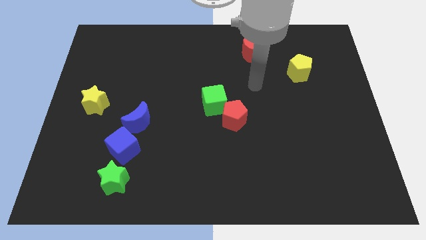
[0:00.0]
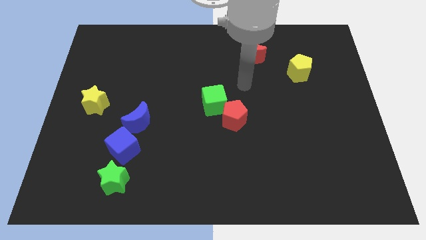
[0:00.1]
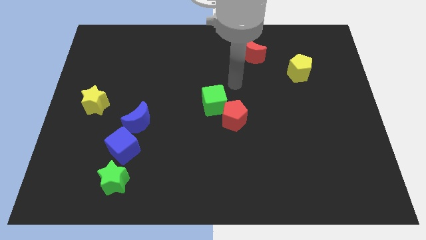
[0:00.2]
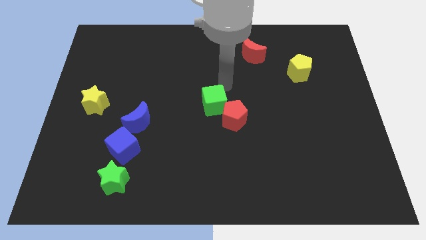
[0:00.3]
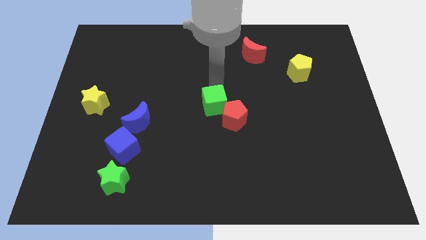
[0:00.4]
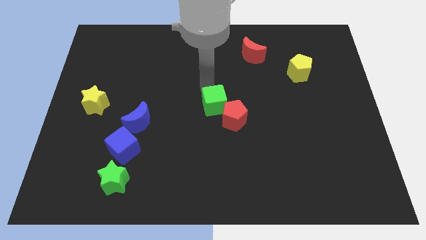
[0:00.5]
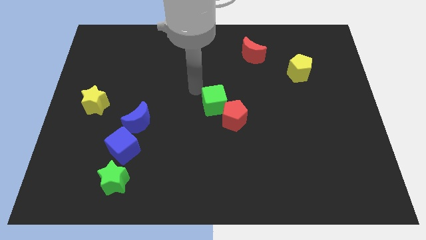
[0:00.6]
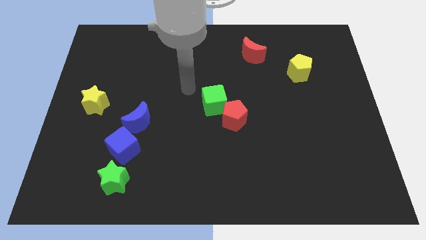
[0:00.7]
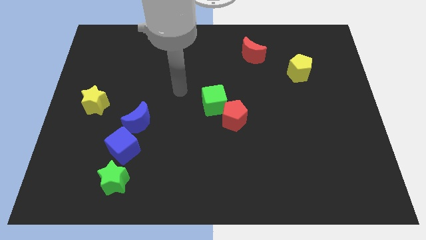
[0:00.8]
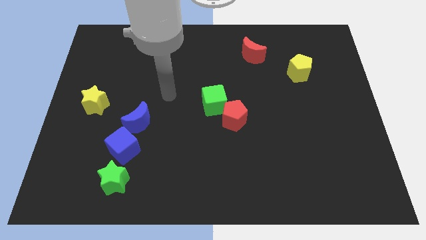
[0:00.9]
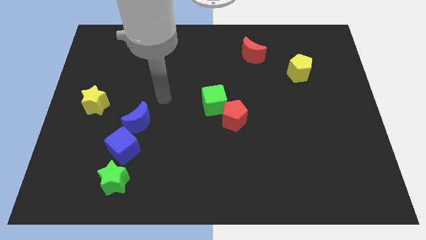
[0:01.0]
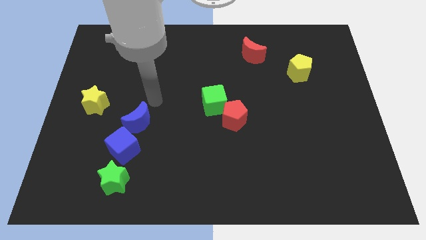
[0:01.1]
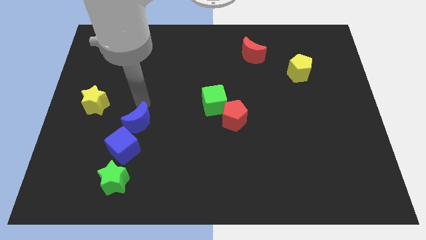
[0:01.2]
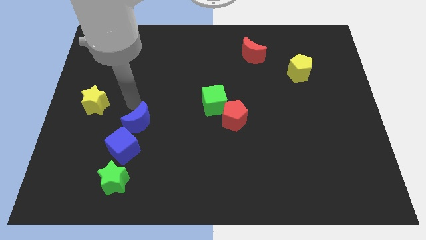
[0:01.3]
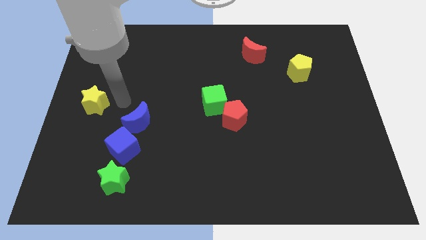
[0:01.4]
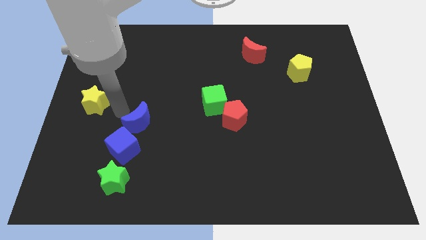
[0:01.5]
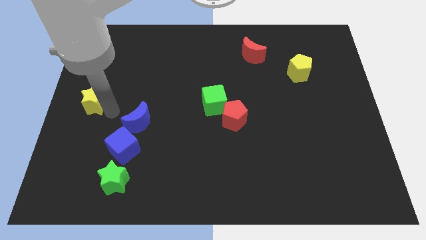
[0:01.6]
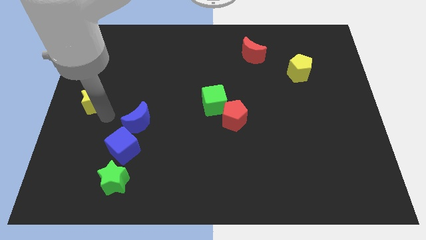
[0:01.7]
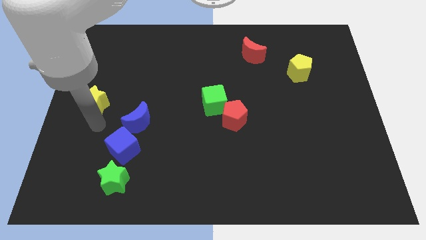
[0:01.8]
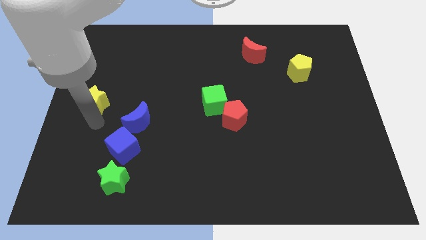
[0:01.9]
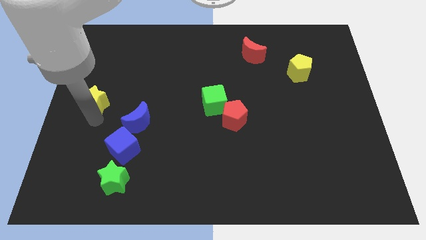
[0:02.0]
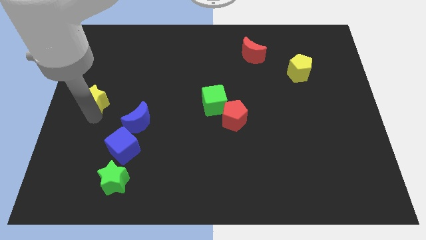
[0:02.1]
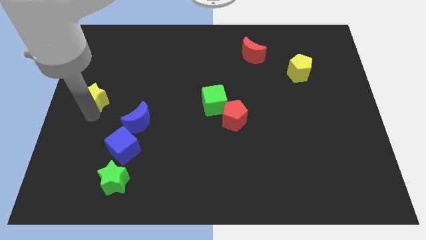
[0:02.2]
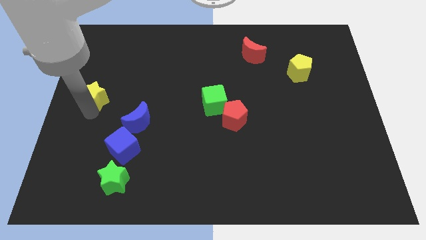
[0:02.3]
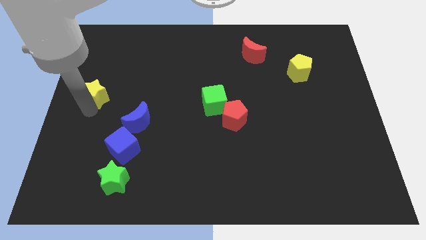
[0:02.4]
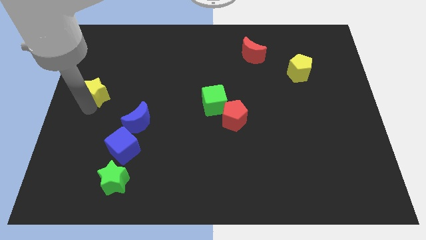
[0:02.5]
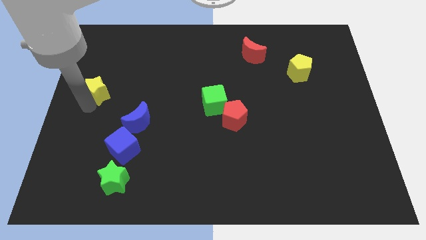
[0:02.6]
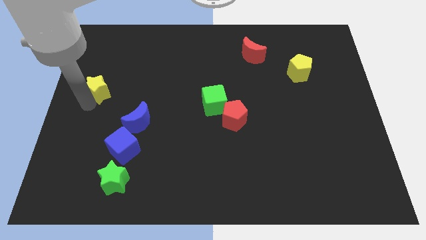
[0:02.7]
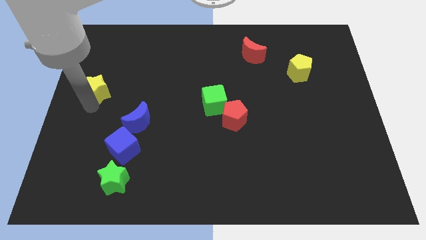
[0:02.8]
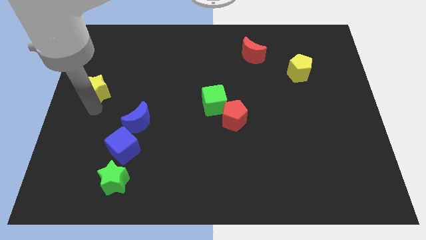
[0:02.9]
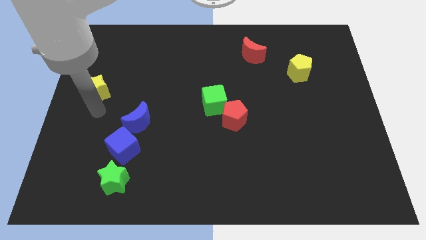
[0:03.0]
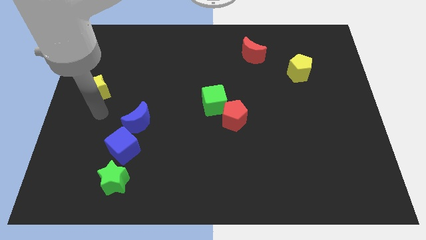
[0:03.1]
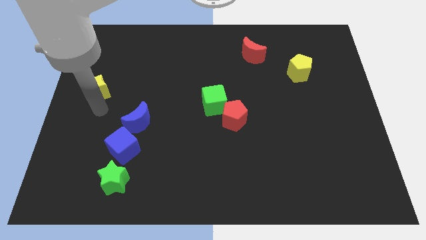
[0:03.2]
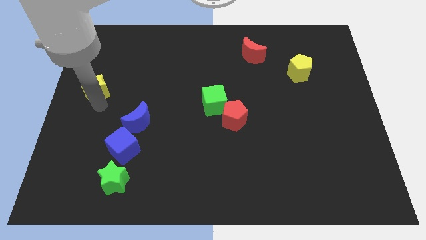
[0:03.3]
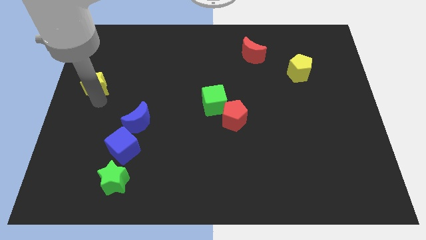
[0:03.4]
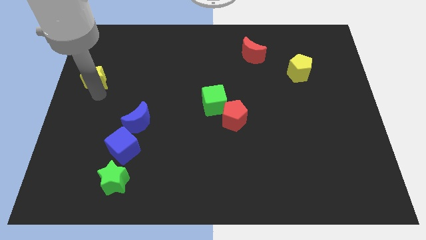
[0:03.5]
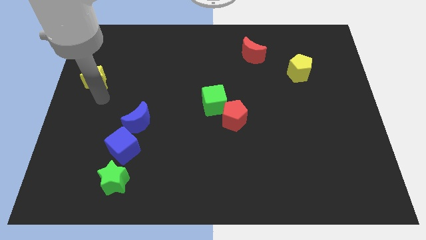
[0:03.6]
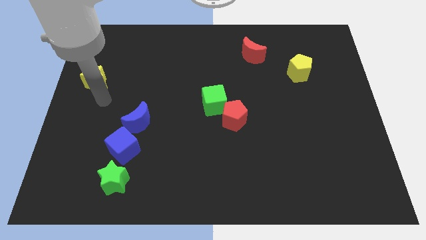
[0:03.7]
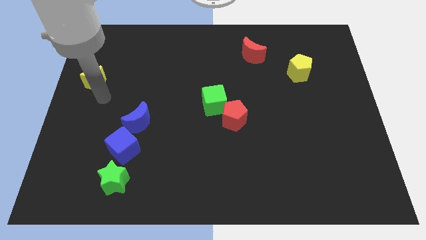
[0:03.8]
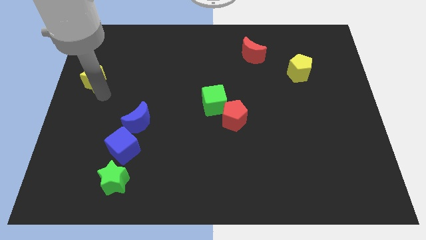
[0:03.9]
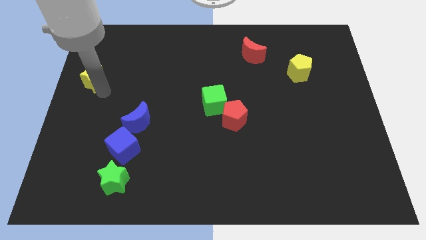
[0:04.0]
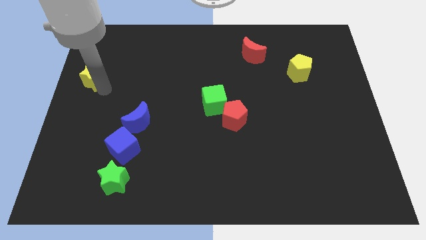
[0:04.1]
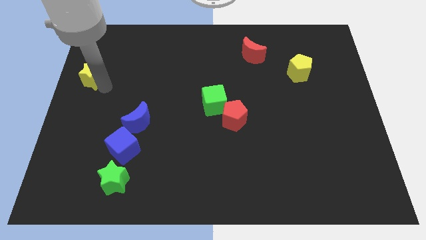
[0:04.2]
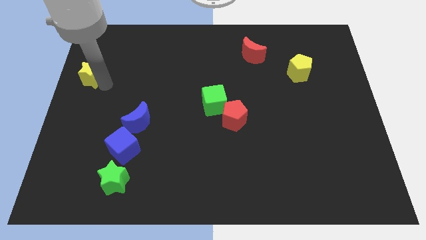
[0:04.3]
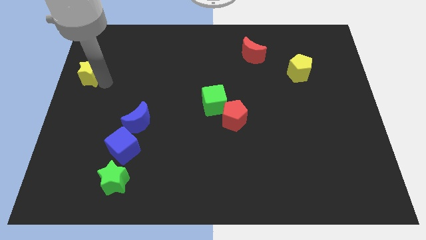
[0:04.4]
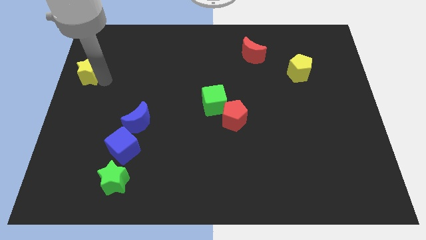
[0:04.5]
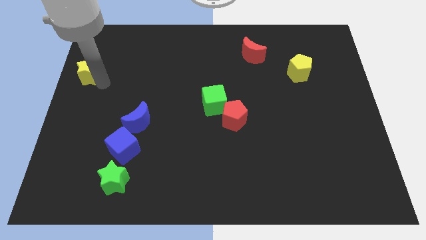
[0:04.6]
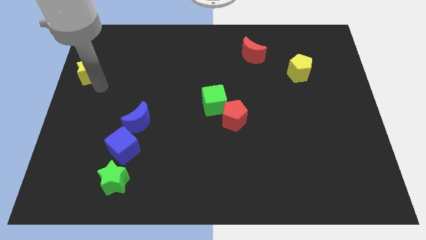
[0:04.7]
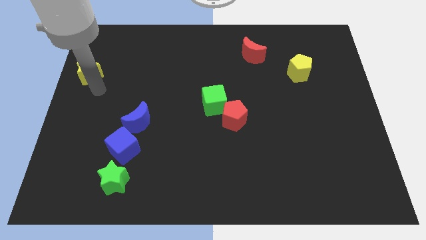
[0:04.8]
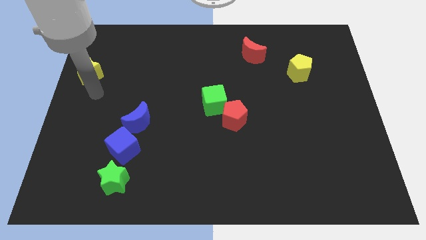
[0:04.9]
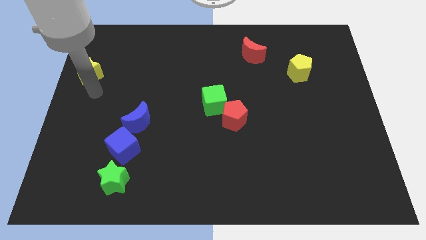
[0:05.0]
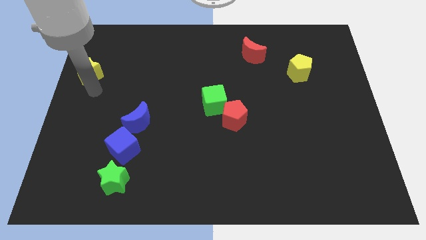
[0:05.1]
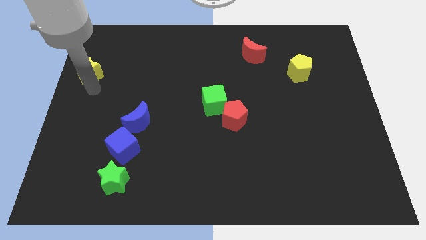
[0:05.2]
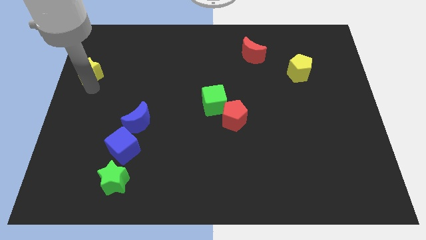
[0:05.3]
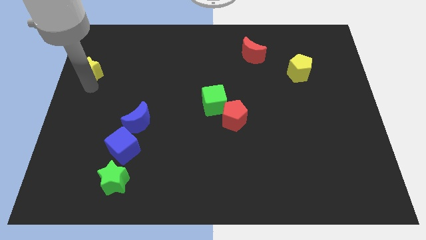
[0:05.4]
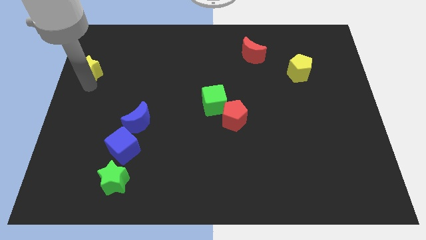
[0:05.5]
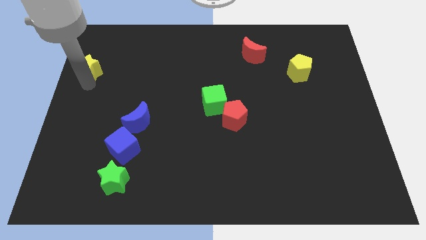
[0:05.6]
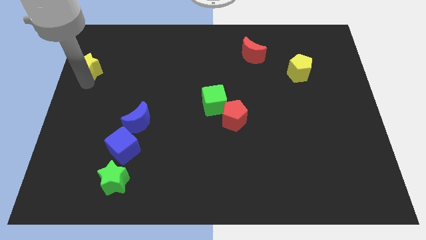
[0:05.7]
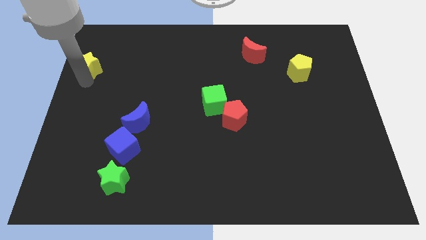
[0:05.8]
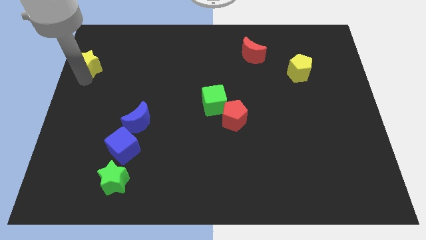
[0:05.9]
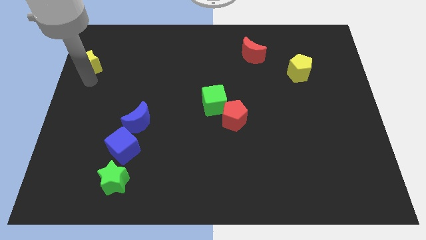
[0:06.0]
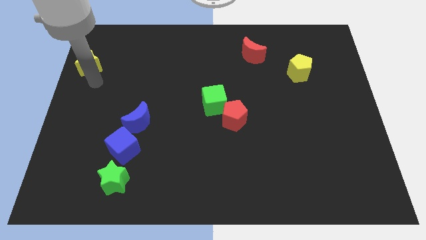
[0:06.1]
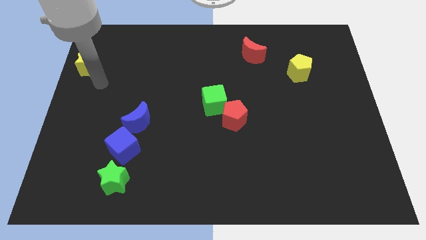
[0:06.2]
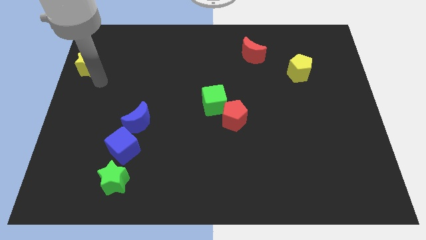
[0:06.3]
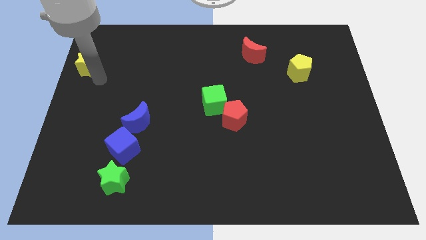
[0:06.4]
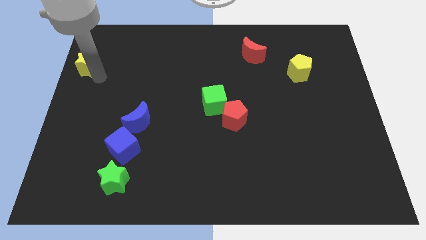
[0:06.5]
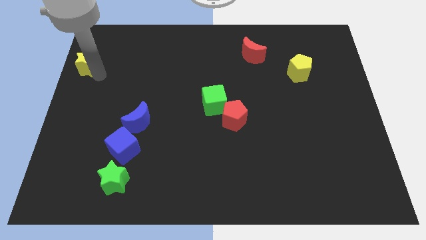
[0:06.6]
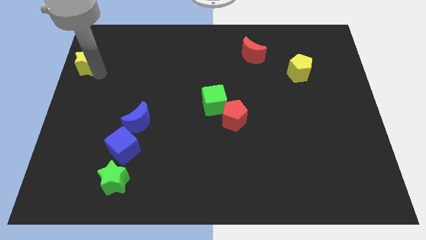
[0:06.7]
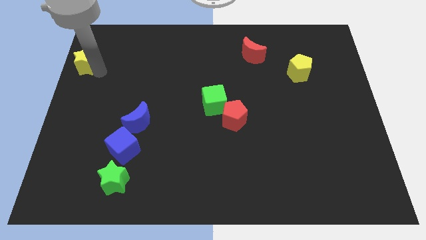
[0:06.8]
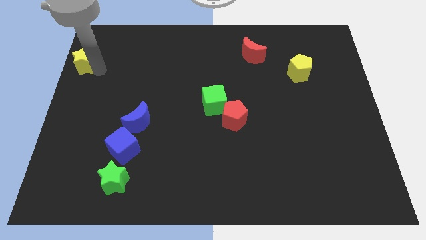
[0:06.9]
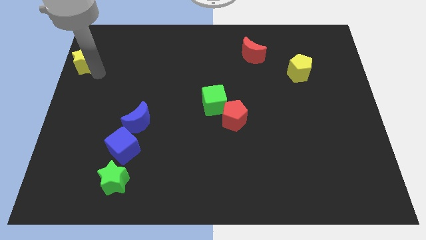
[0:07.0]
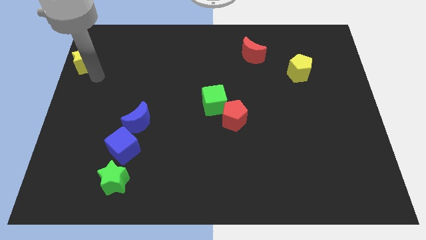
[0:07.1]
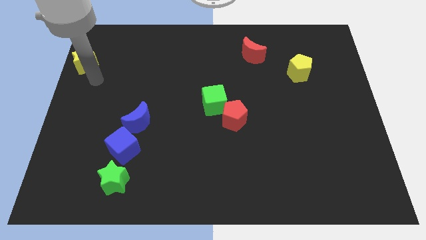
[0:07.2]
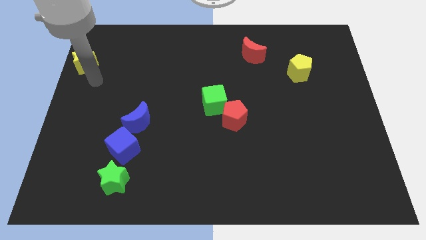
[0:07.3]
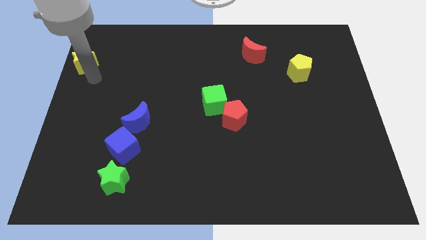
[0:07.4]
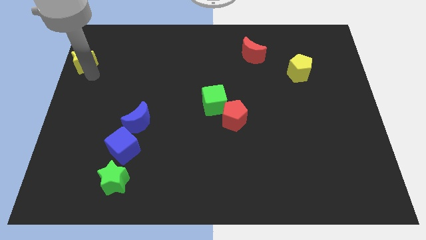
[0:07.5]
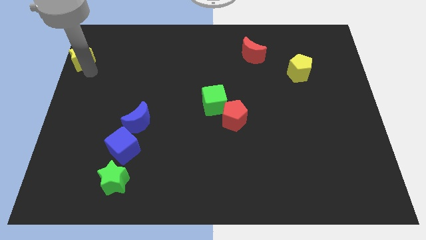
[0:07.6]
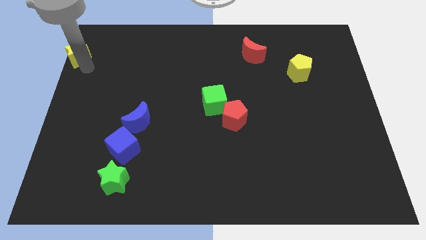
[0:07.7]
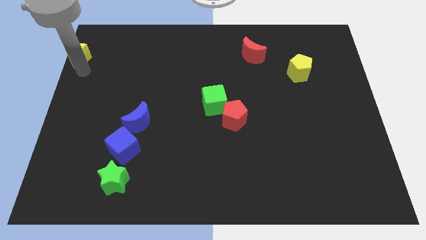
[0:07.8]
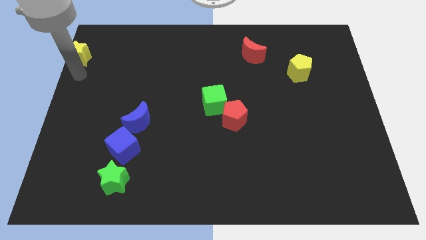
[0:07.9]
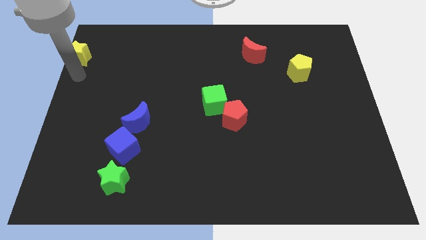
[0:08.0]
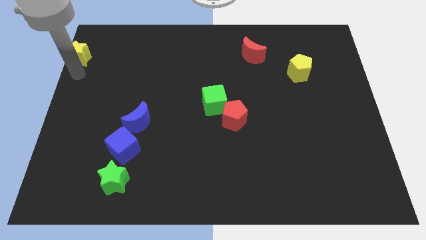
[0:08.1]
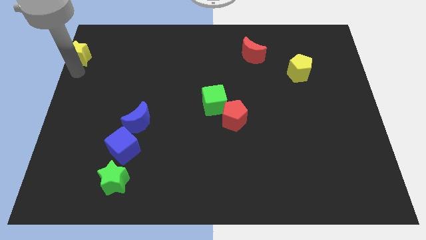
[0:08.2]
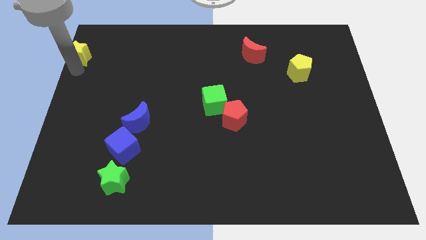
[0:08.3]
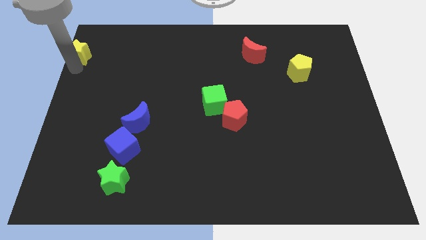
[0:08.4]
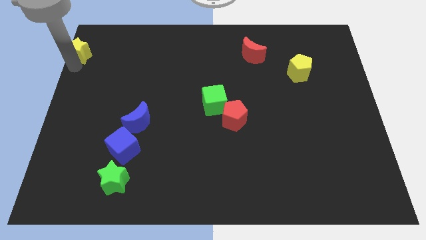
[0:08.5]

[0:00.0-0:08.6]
move the yellow star to the upper left corner
